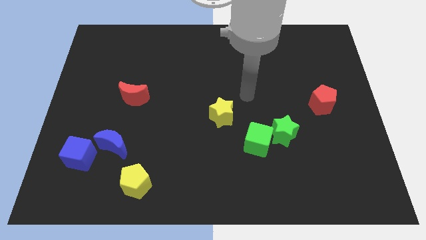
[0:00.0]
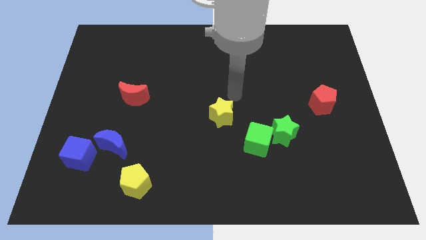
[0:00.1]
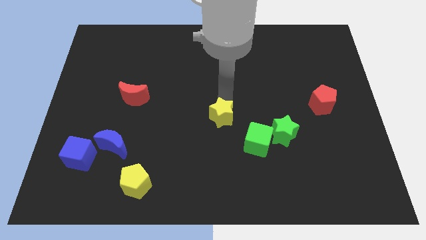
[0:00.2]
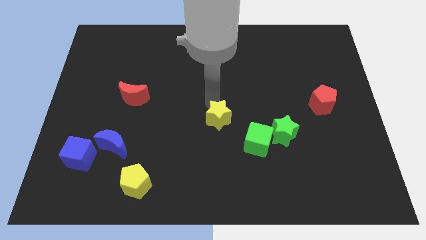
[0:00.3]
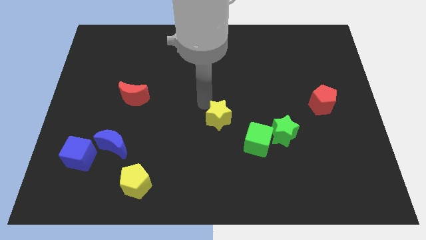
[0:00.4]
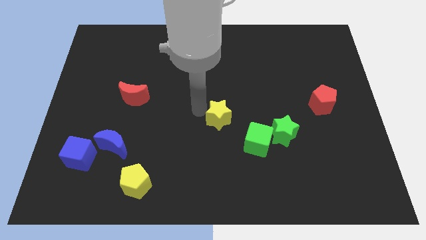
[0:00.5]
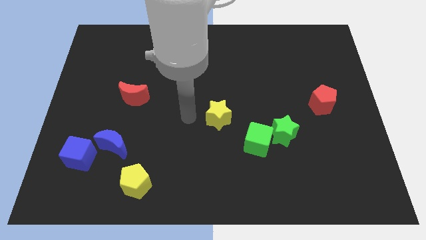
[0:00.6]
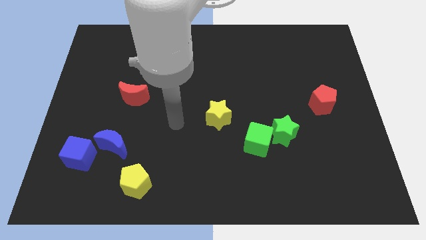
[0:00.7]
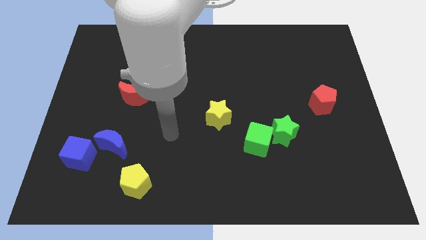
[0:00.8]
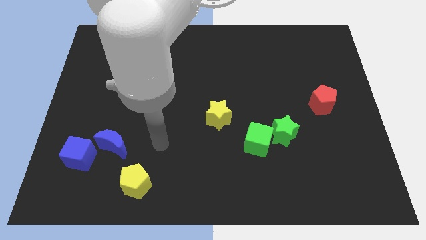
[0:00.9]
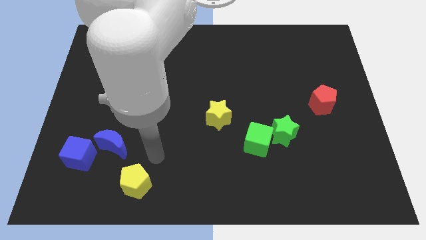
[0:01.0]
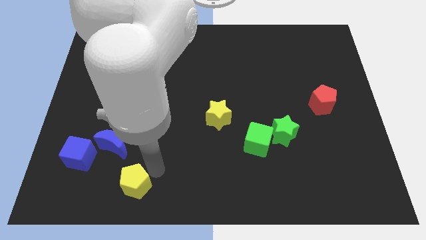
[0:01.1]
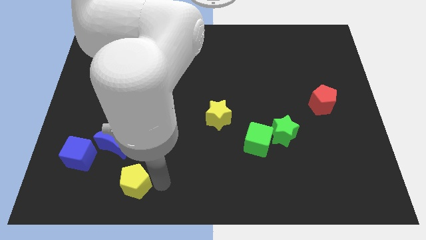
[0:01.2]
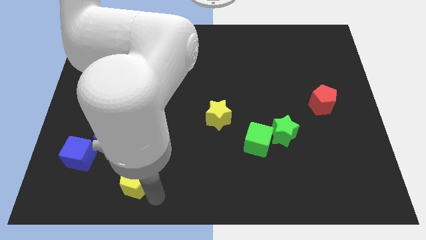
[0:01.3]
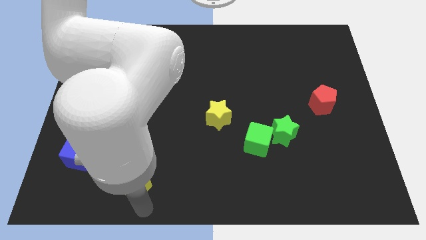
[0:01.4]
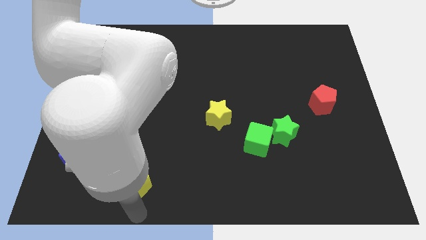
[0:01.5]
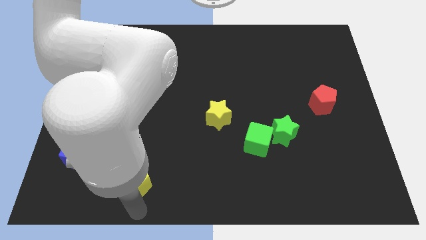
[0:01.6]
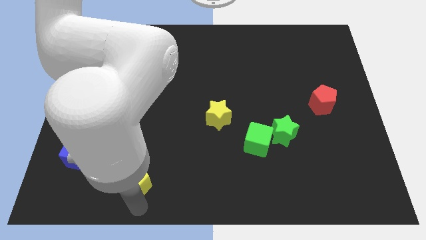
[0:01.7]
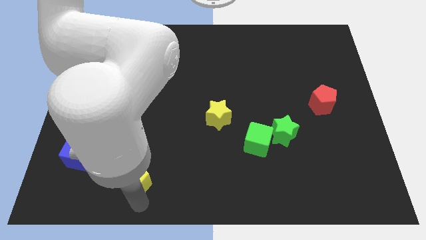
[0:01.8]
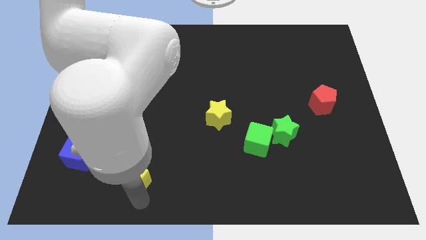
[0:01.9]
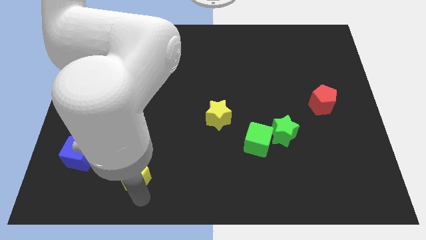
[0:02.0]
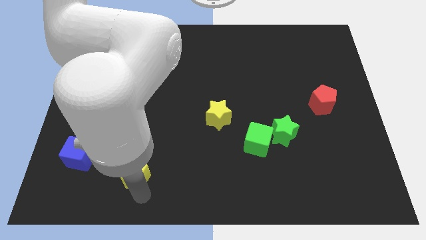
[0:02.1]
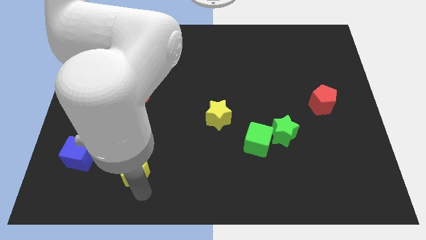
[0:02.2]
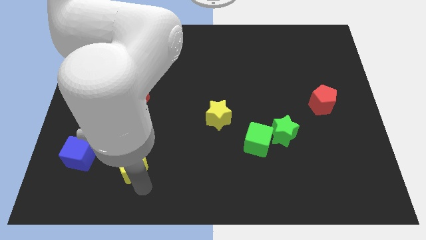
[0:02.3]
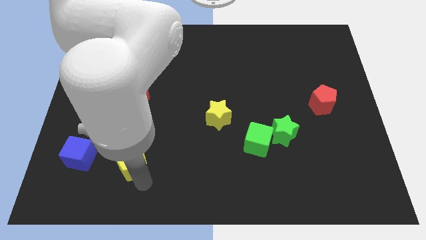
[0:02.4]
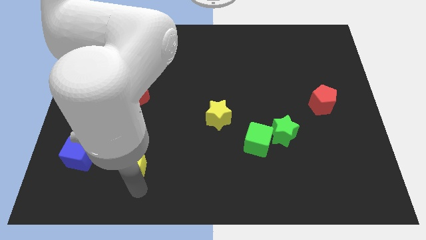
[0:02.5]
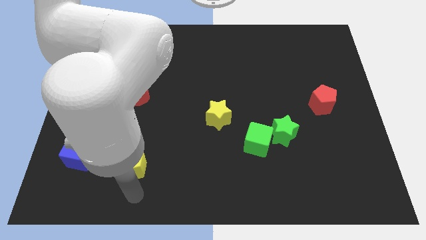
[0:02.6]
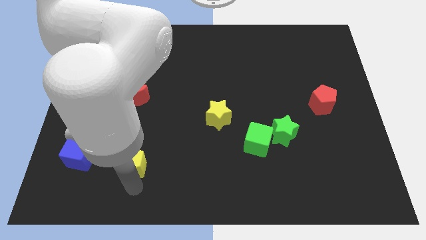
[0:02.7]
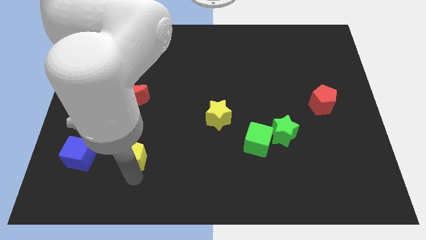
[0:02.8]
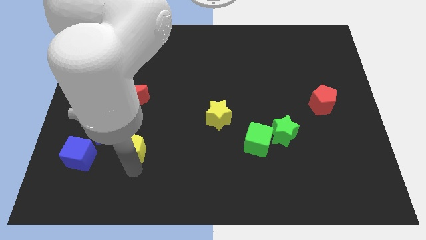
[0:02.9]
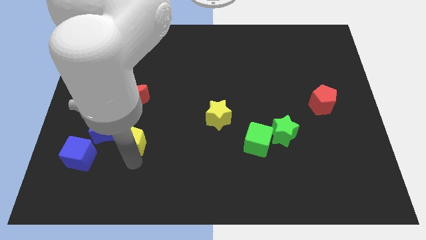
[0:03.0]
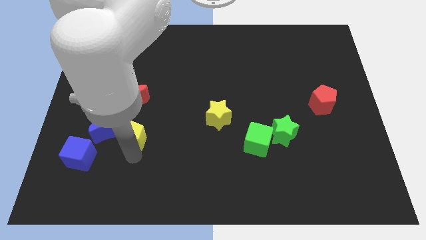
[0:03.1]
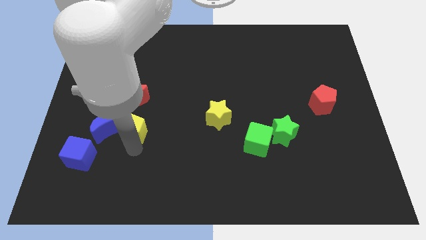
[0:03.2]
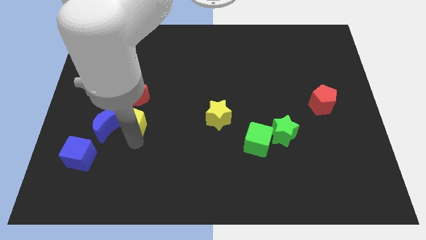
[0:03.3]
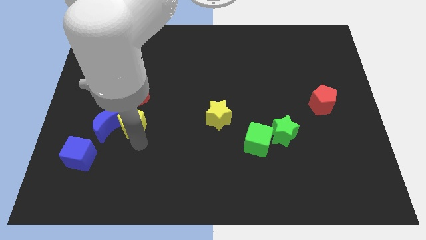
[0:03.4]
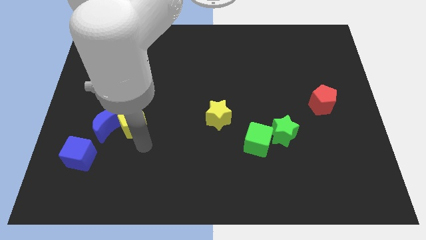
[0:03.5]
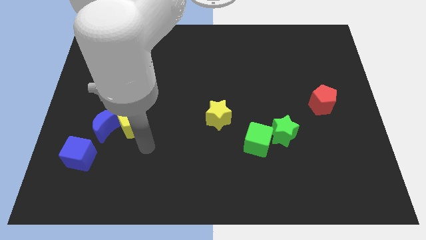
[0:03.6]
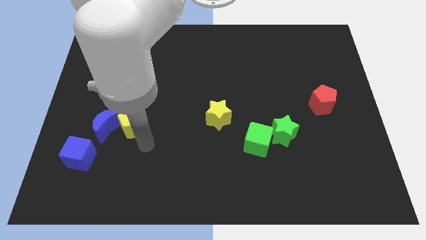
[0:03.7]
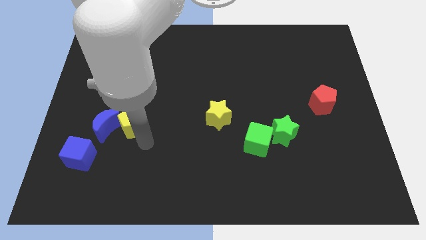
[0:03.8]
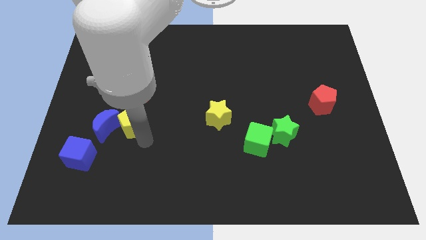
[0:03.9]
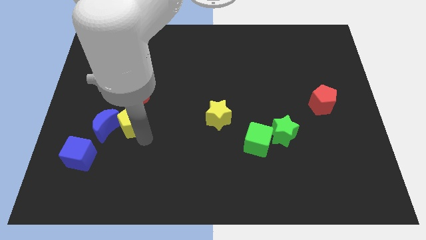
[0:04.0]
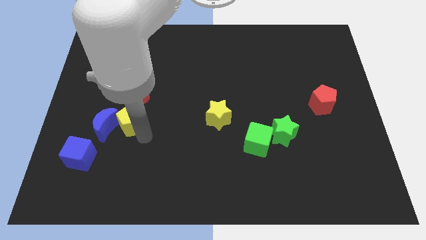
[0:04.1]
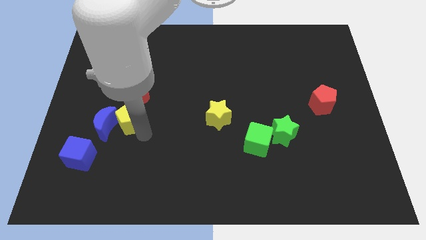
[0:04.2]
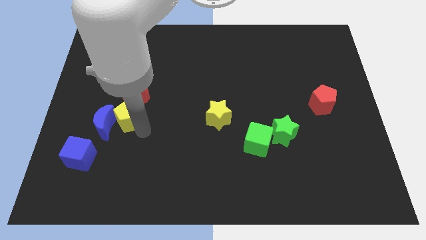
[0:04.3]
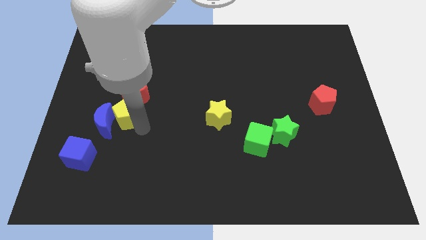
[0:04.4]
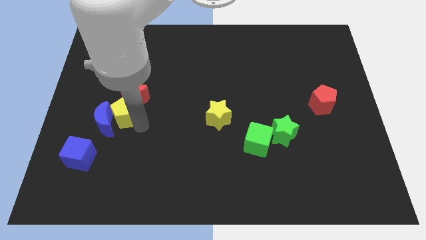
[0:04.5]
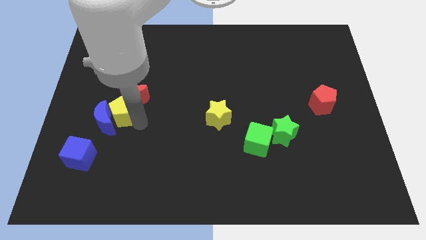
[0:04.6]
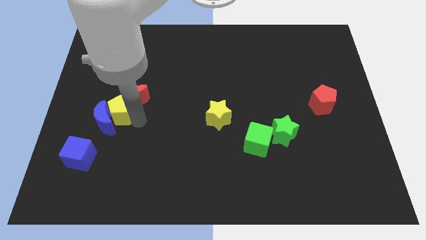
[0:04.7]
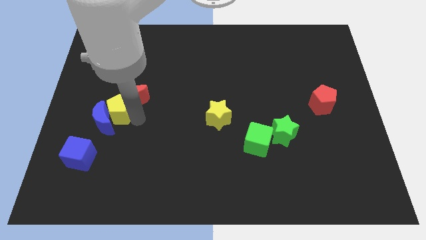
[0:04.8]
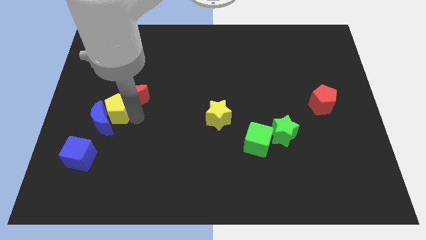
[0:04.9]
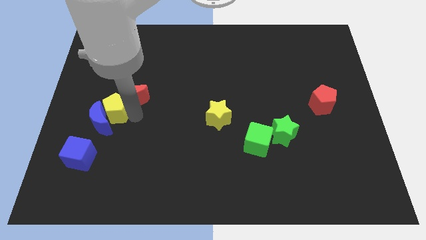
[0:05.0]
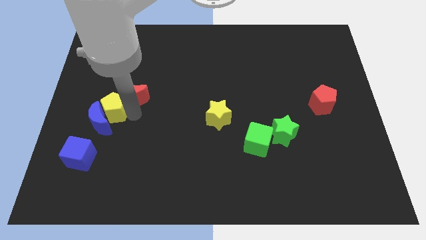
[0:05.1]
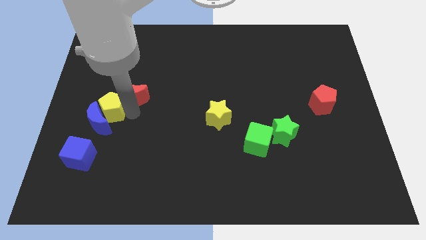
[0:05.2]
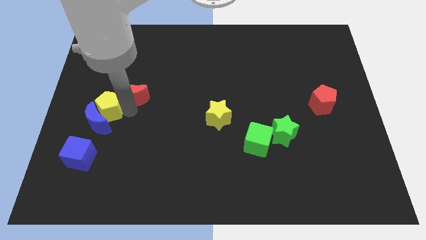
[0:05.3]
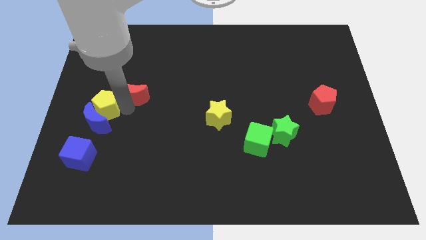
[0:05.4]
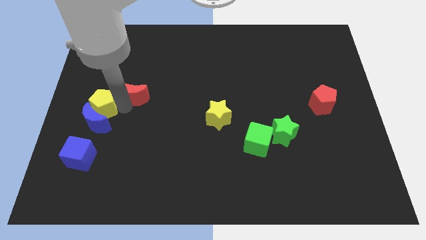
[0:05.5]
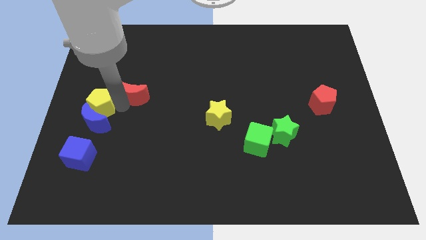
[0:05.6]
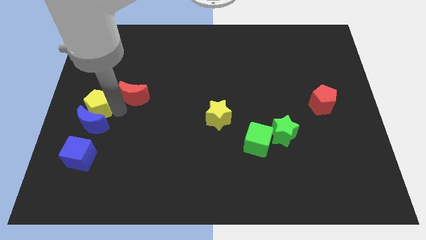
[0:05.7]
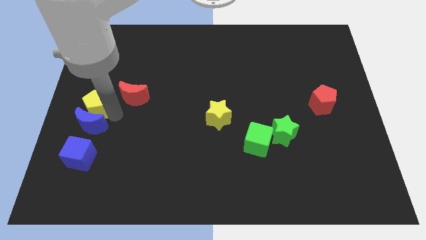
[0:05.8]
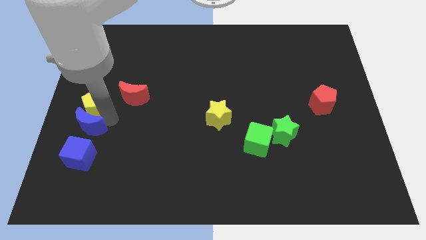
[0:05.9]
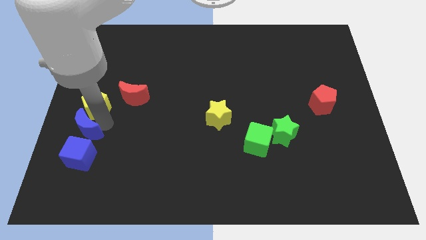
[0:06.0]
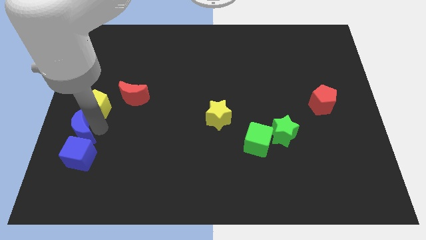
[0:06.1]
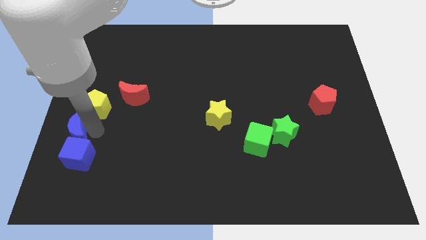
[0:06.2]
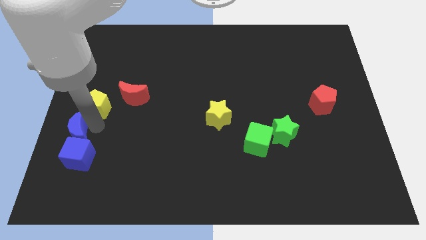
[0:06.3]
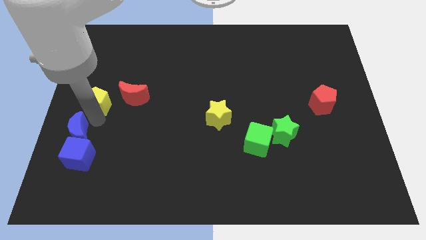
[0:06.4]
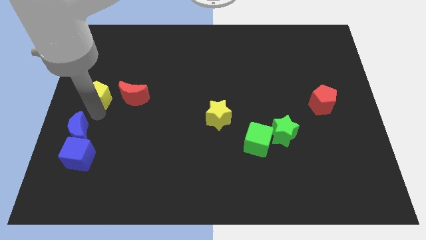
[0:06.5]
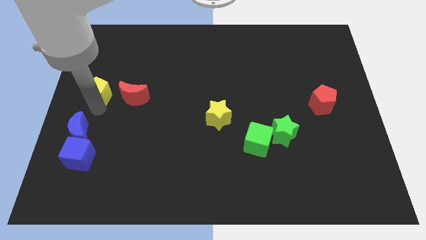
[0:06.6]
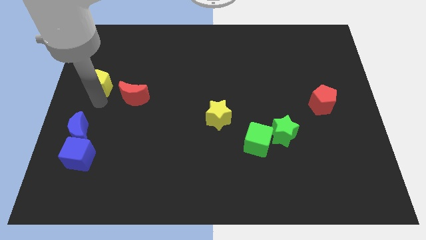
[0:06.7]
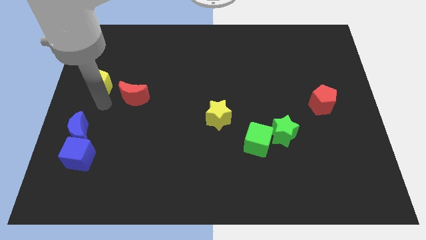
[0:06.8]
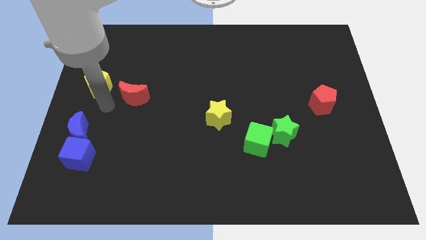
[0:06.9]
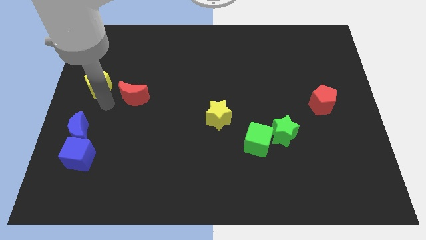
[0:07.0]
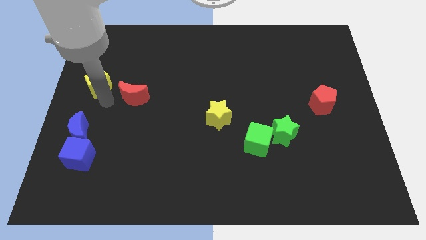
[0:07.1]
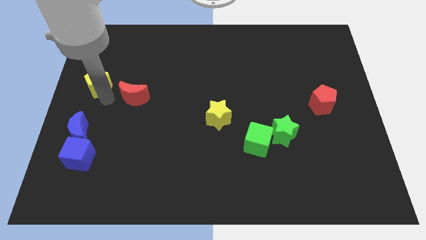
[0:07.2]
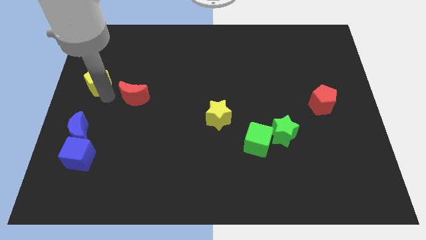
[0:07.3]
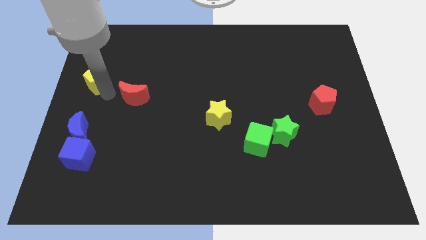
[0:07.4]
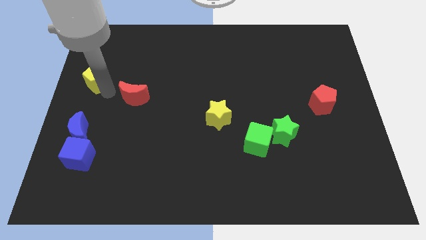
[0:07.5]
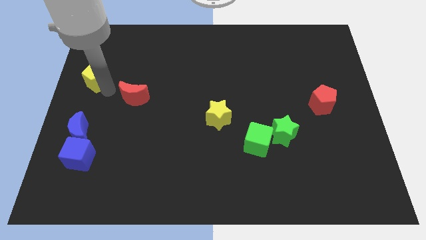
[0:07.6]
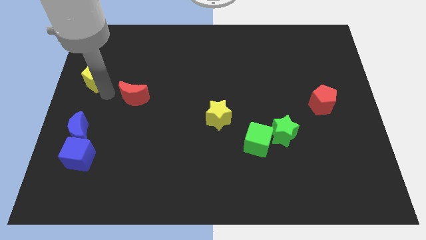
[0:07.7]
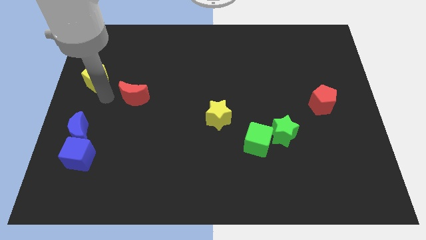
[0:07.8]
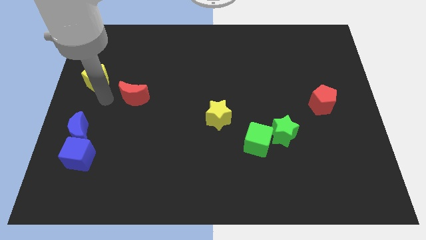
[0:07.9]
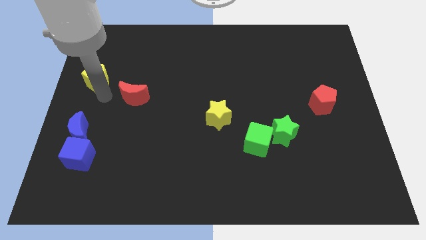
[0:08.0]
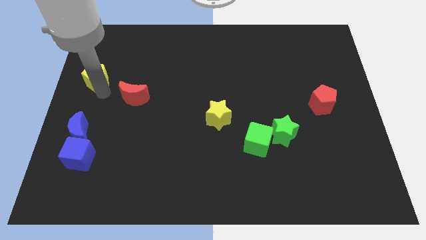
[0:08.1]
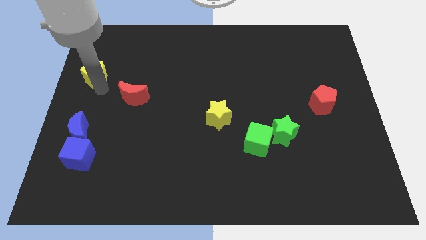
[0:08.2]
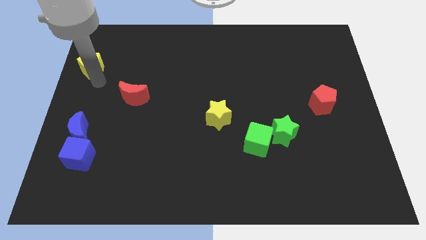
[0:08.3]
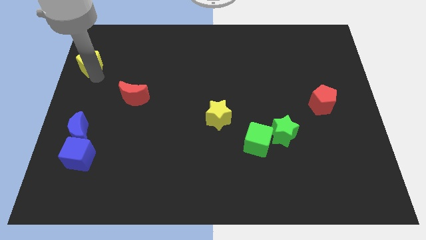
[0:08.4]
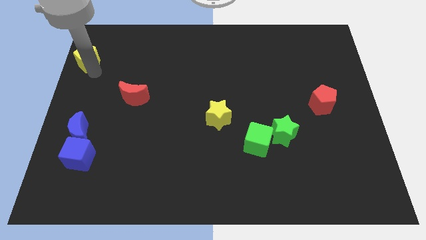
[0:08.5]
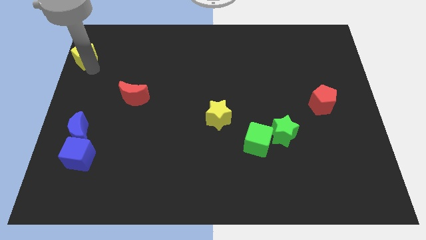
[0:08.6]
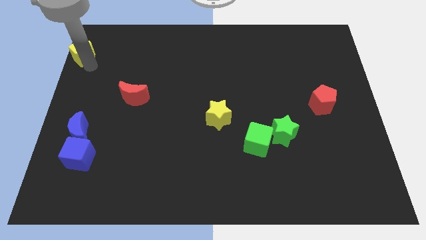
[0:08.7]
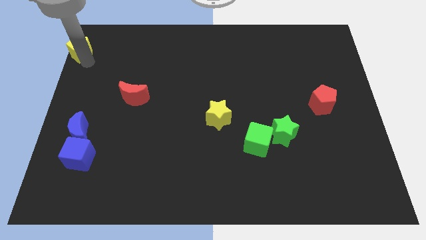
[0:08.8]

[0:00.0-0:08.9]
push the yellow pentagon to the upper left corner
